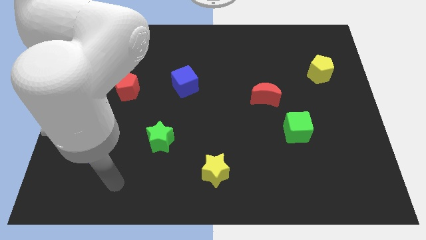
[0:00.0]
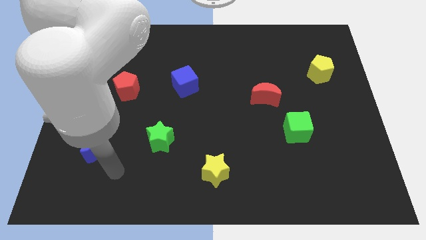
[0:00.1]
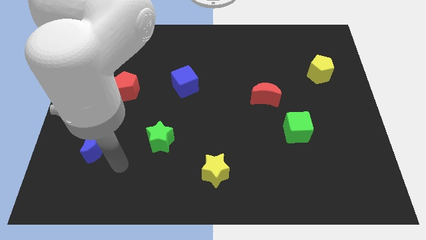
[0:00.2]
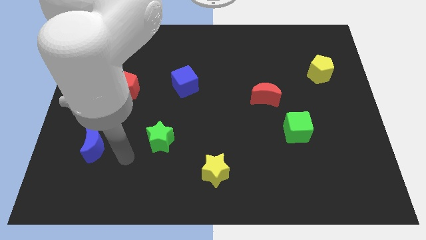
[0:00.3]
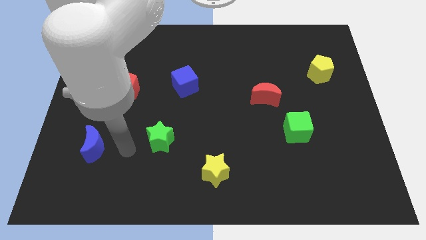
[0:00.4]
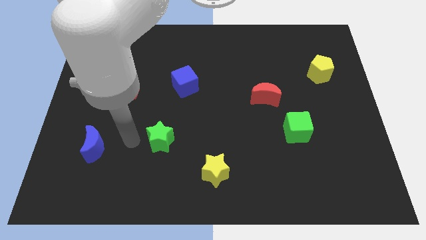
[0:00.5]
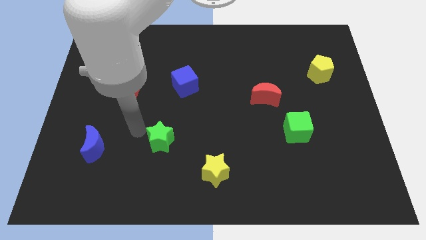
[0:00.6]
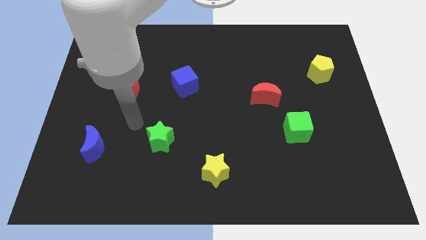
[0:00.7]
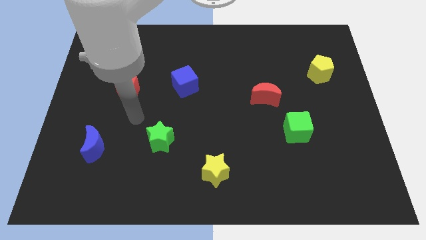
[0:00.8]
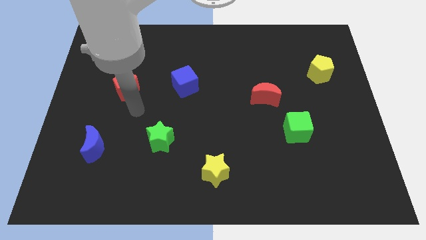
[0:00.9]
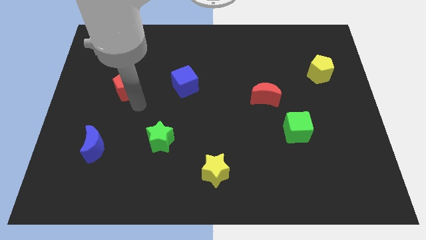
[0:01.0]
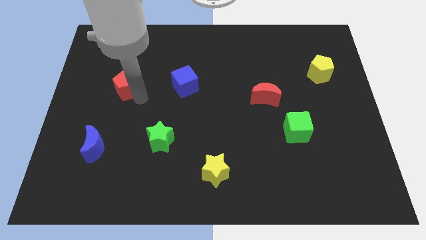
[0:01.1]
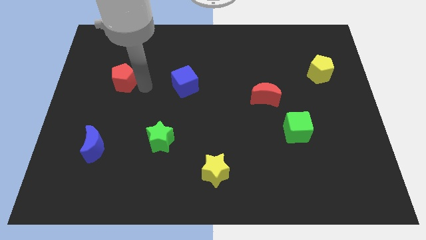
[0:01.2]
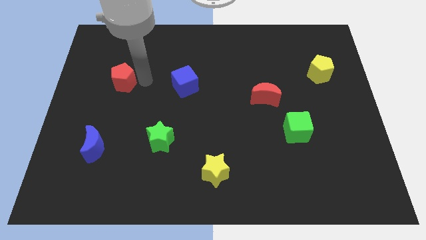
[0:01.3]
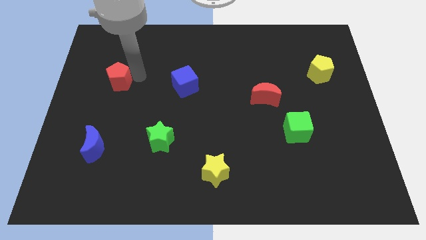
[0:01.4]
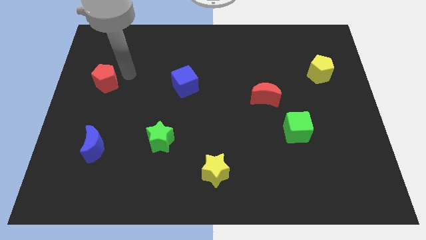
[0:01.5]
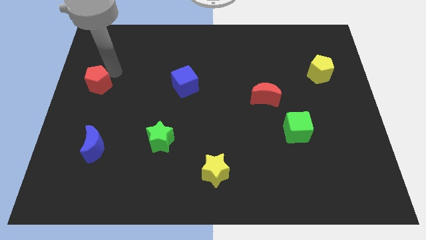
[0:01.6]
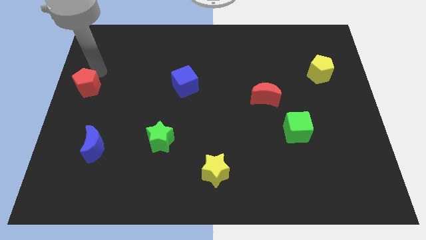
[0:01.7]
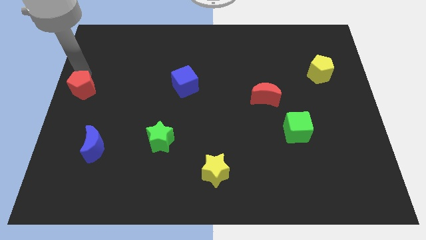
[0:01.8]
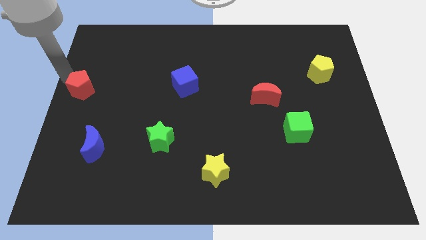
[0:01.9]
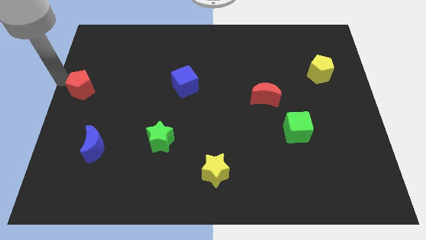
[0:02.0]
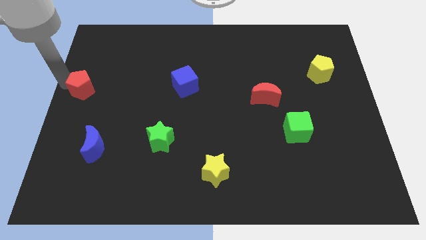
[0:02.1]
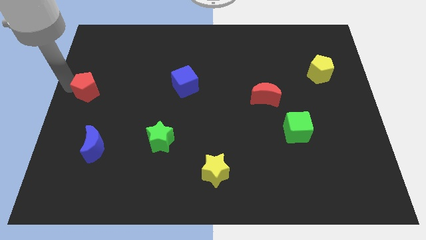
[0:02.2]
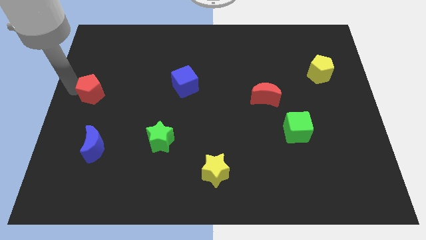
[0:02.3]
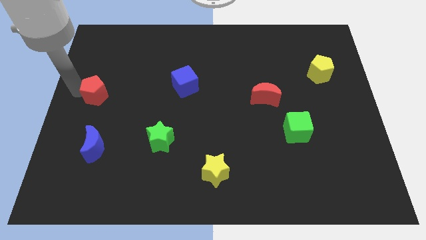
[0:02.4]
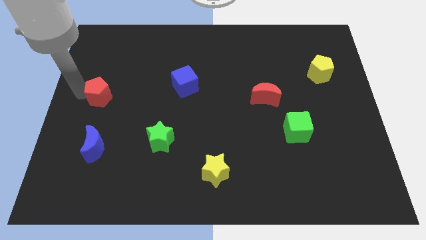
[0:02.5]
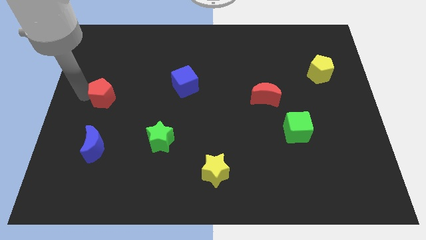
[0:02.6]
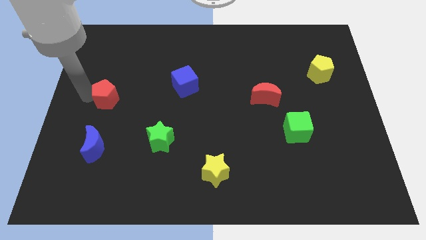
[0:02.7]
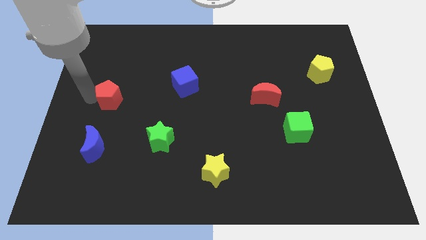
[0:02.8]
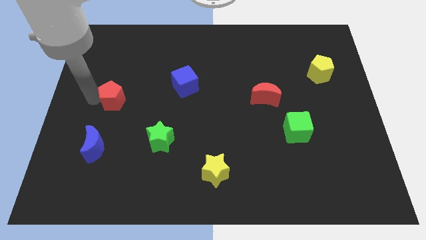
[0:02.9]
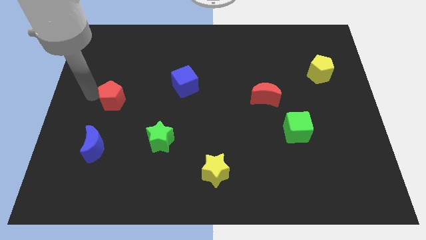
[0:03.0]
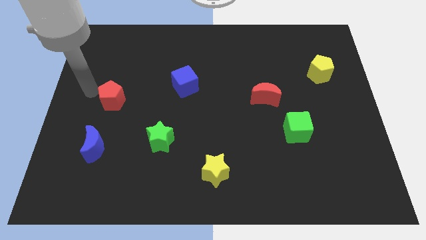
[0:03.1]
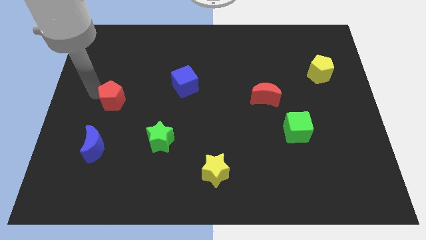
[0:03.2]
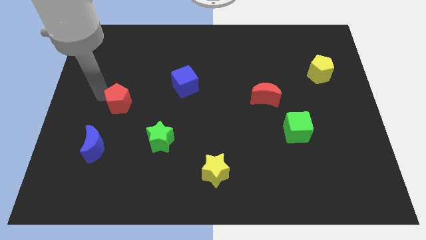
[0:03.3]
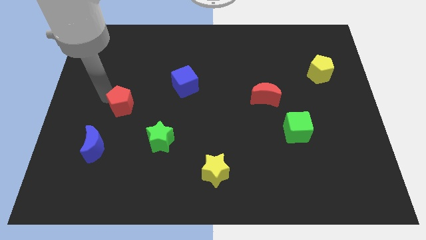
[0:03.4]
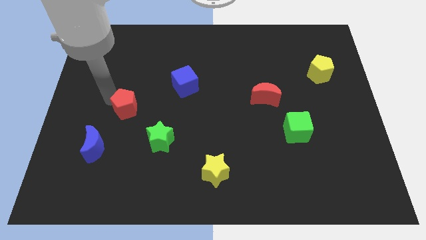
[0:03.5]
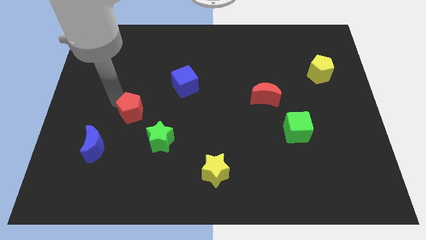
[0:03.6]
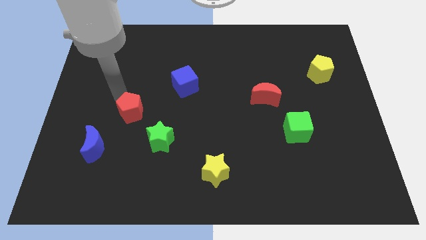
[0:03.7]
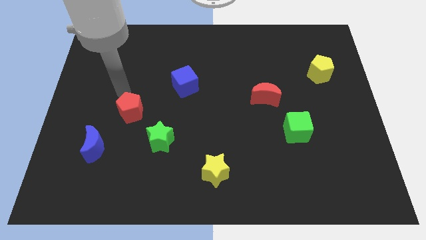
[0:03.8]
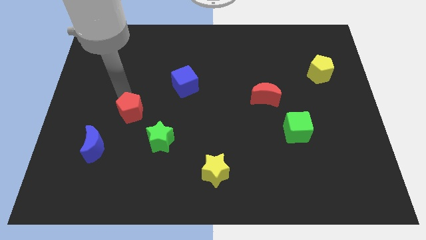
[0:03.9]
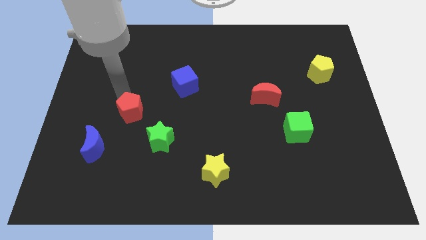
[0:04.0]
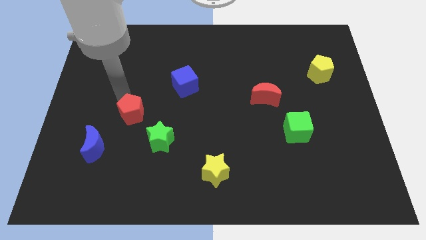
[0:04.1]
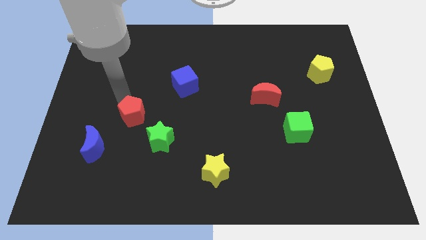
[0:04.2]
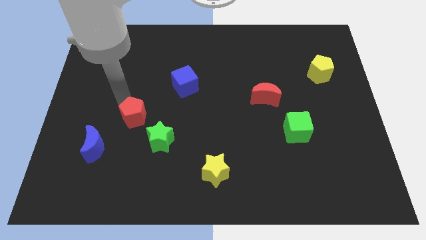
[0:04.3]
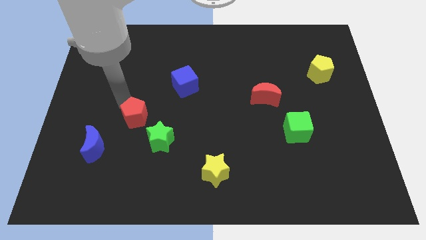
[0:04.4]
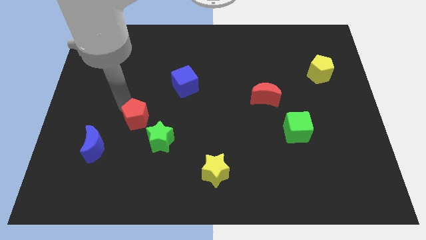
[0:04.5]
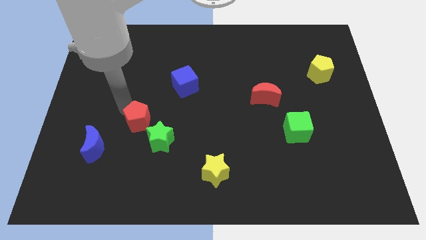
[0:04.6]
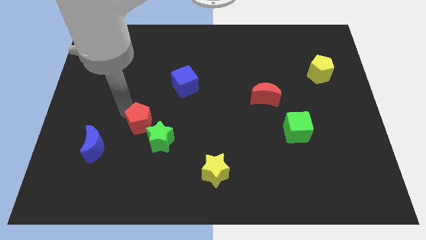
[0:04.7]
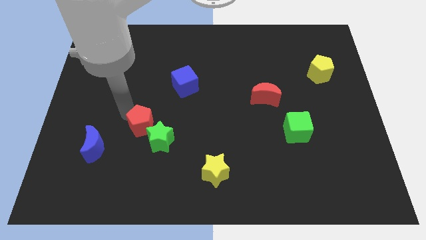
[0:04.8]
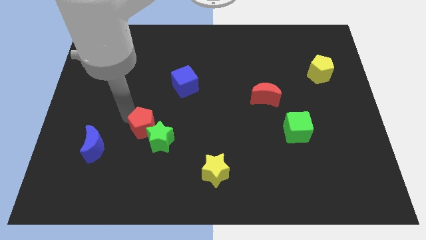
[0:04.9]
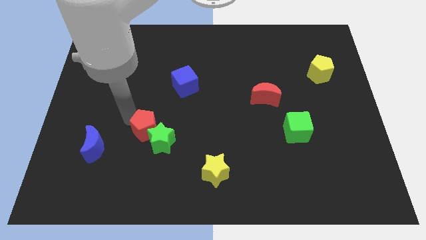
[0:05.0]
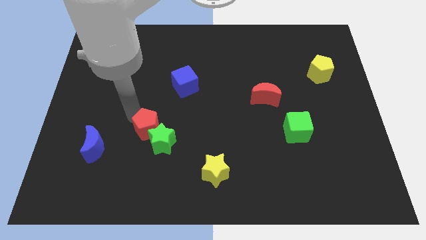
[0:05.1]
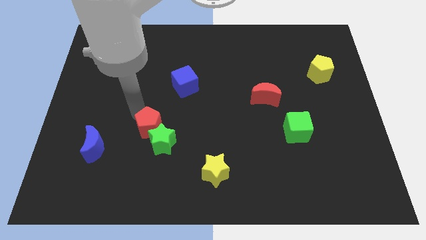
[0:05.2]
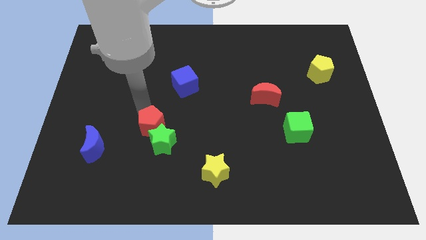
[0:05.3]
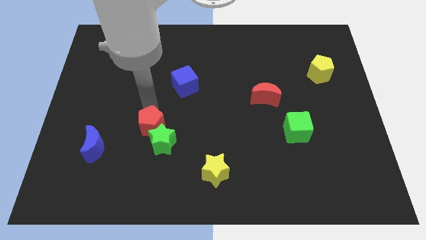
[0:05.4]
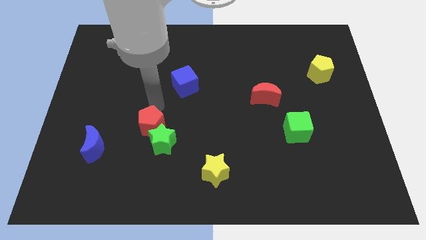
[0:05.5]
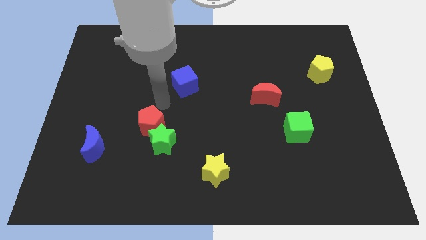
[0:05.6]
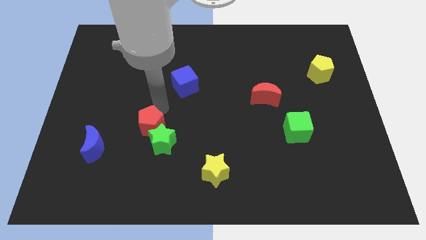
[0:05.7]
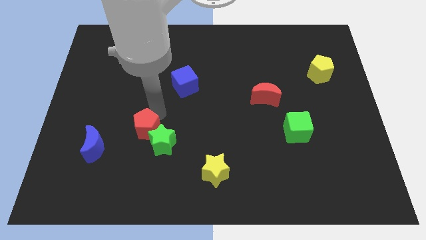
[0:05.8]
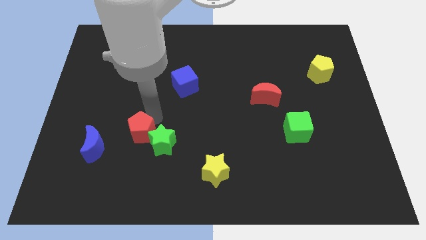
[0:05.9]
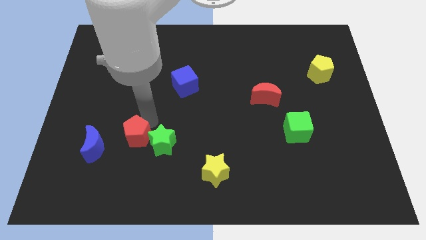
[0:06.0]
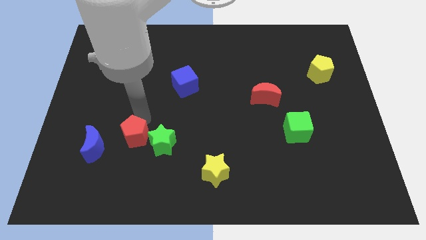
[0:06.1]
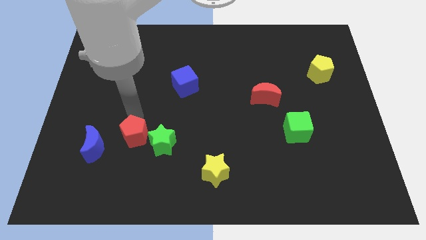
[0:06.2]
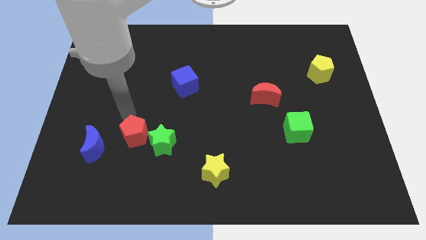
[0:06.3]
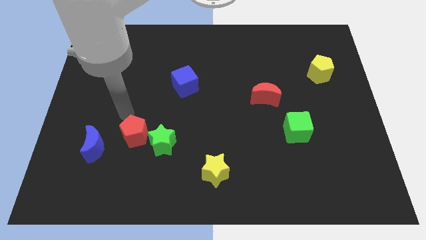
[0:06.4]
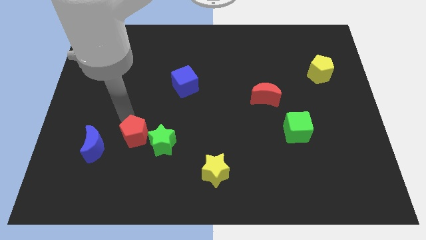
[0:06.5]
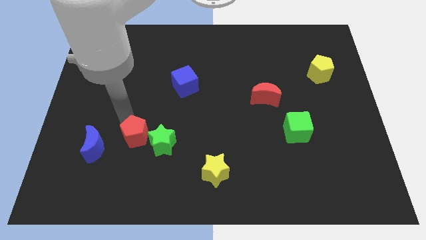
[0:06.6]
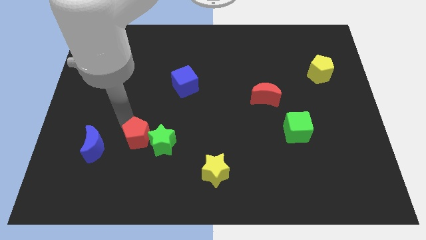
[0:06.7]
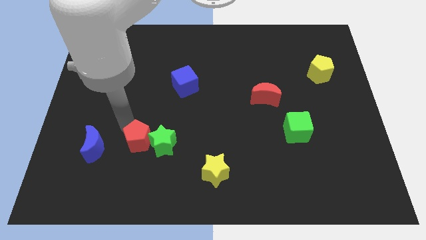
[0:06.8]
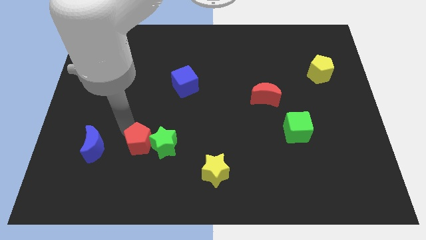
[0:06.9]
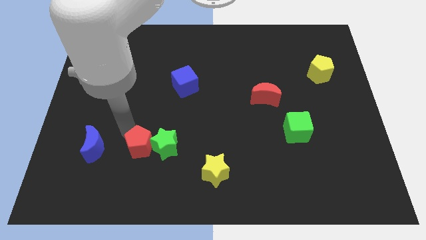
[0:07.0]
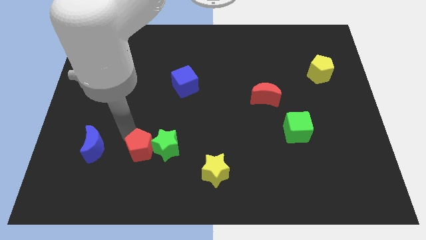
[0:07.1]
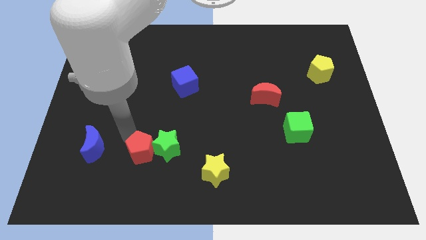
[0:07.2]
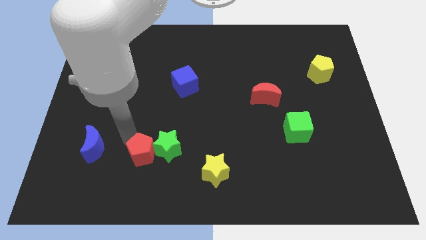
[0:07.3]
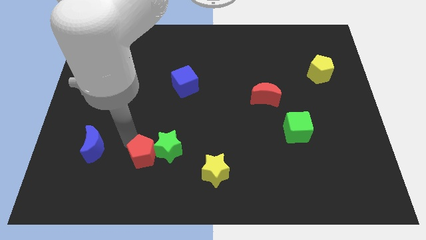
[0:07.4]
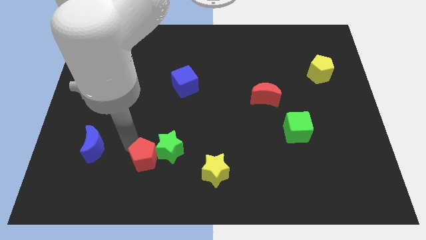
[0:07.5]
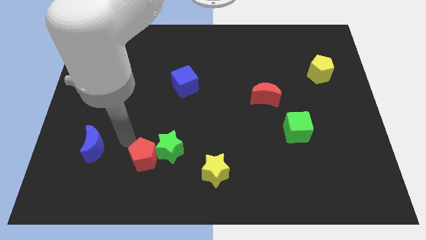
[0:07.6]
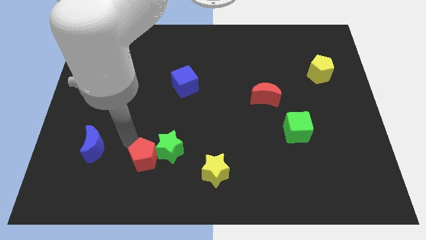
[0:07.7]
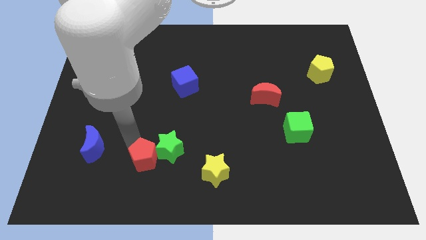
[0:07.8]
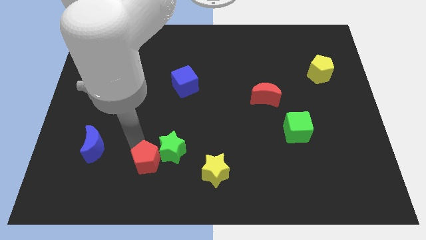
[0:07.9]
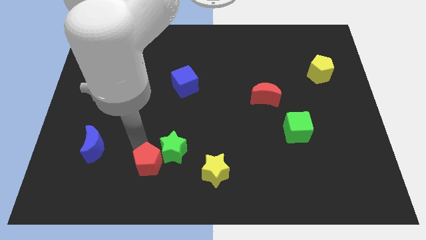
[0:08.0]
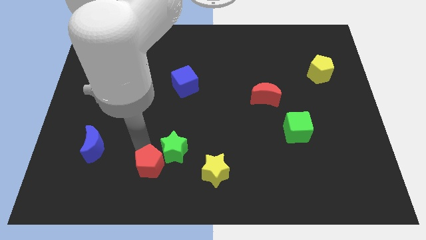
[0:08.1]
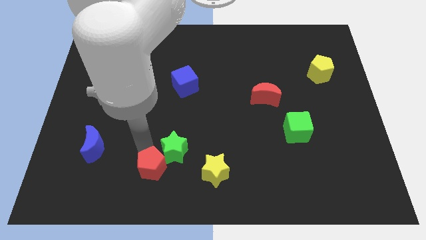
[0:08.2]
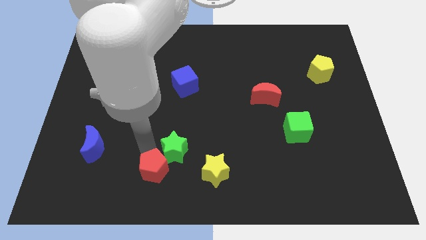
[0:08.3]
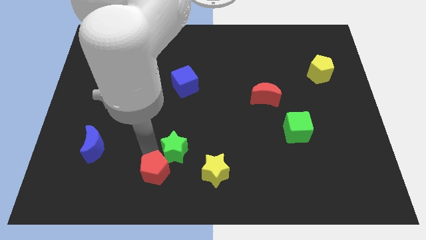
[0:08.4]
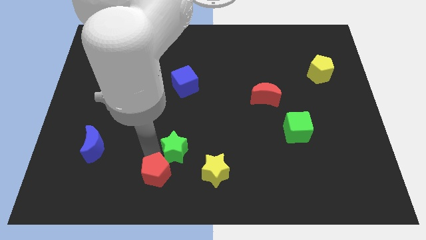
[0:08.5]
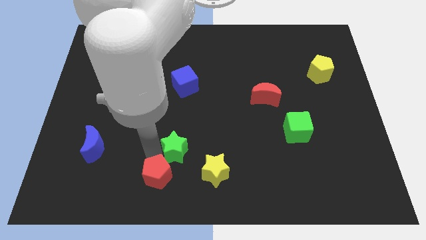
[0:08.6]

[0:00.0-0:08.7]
put the red pentagon to the bottom
